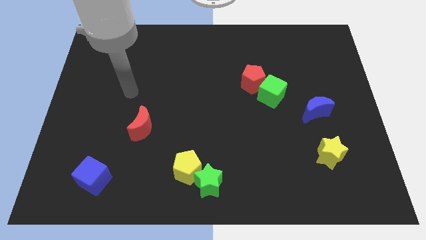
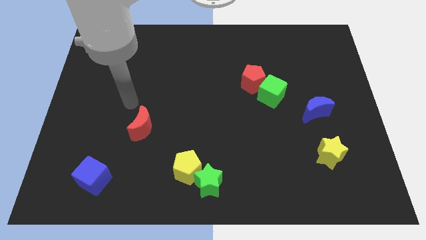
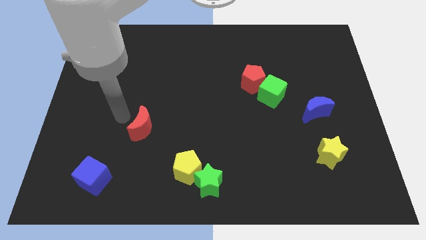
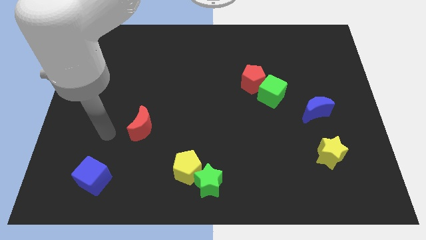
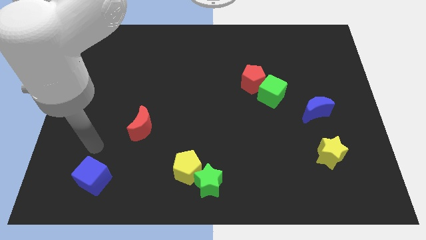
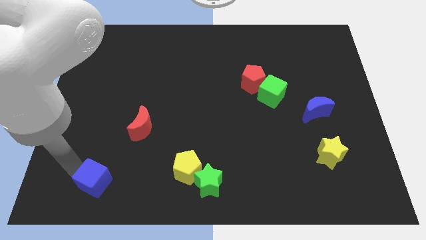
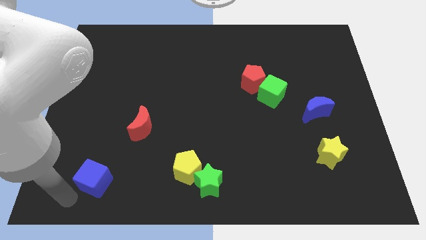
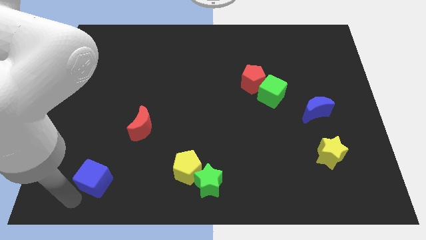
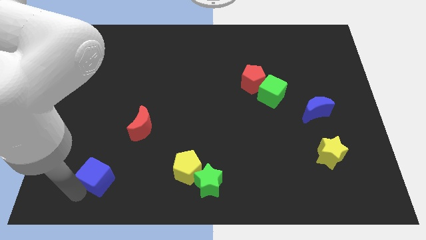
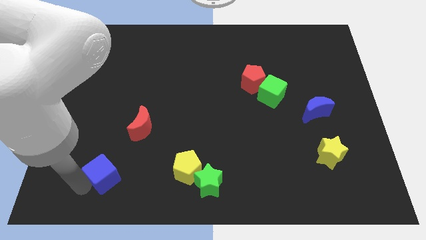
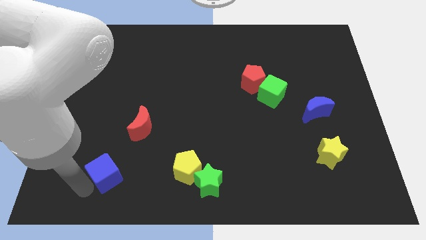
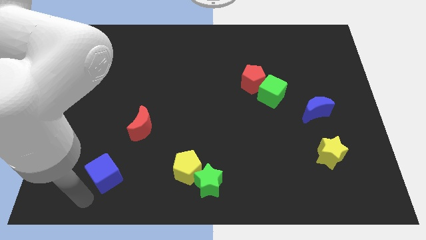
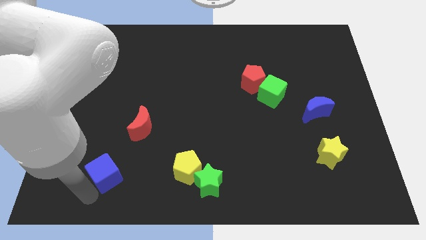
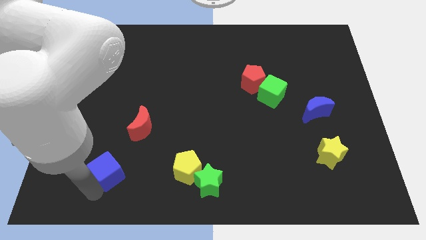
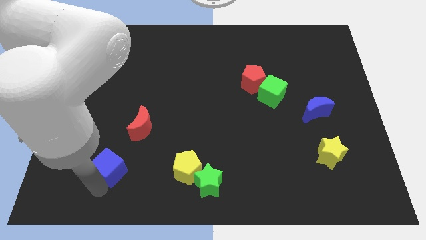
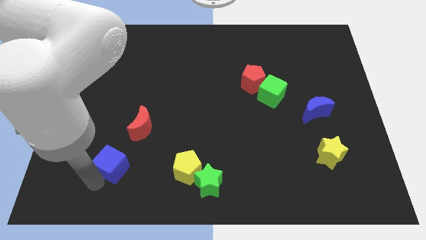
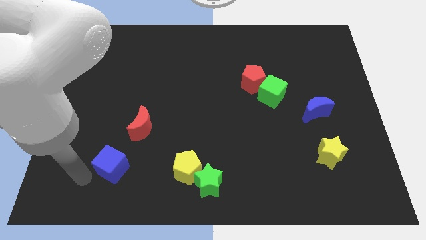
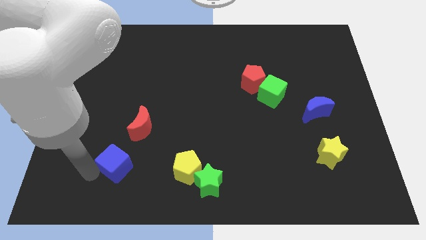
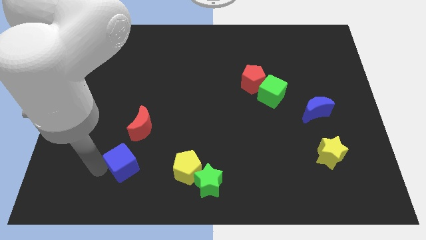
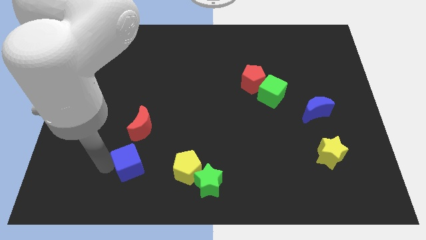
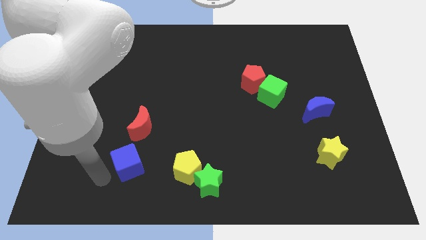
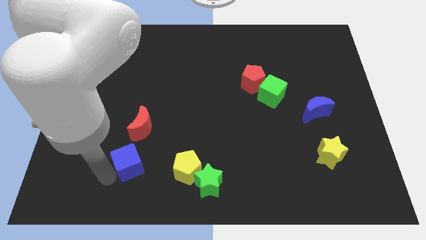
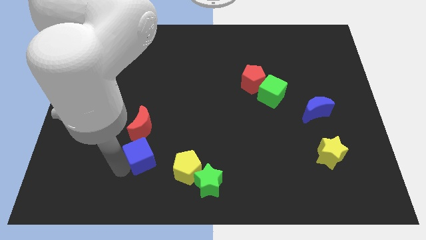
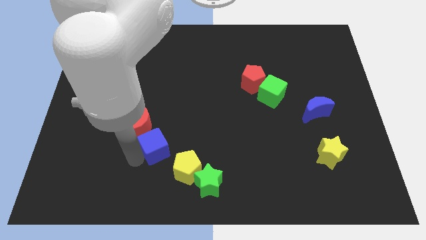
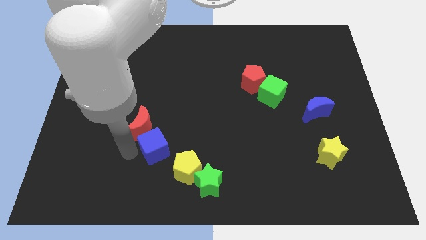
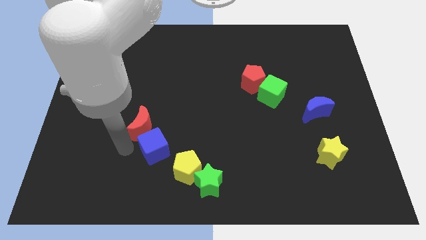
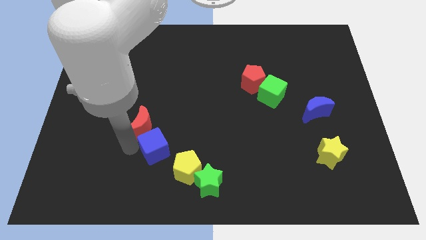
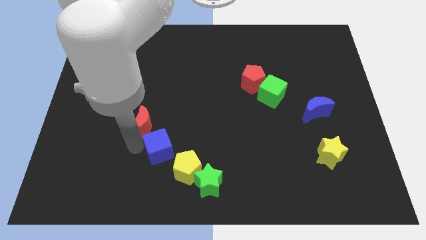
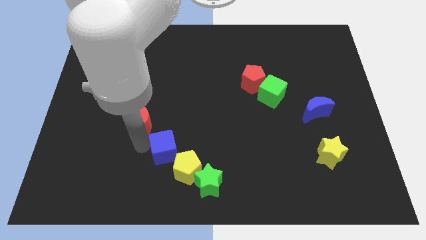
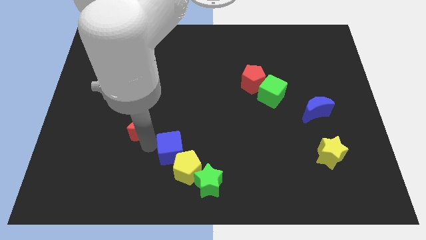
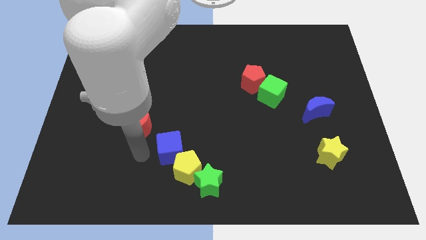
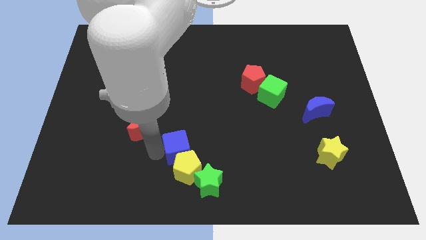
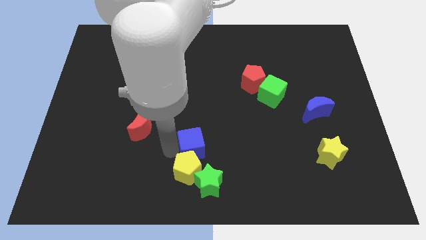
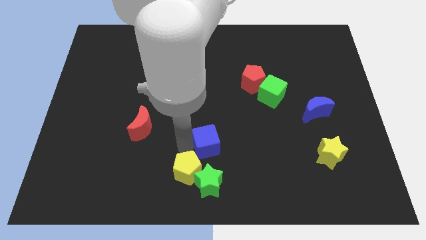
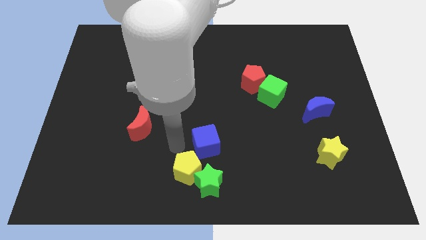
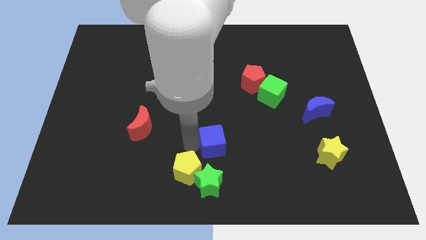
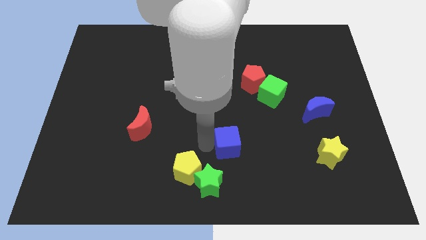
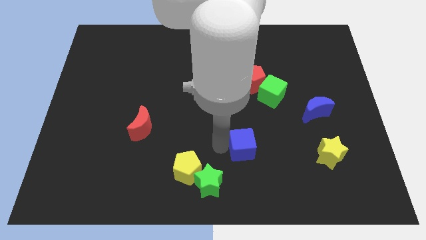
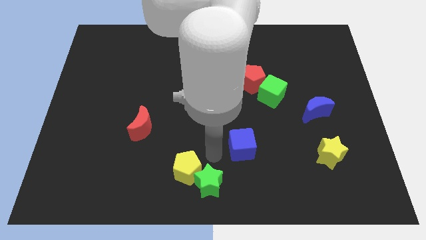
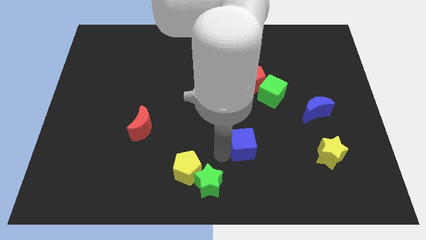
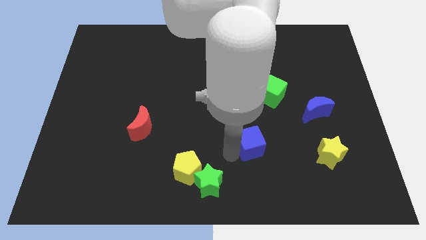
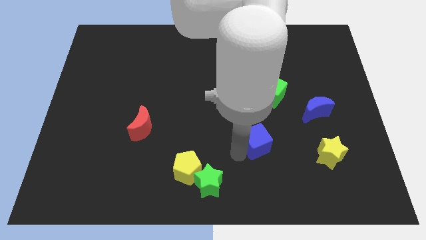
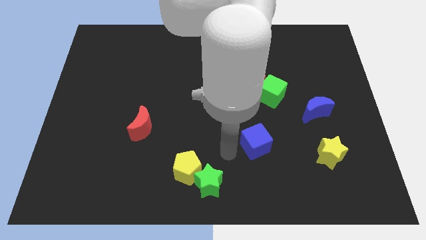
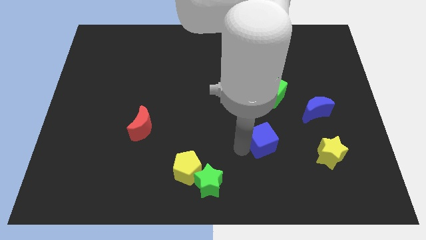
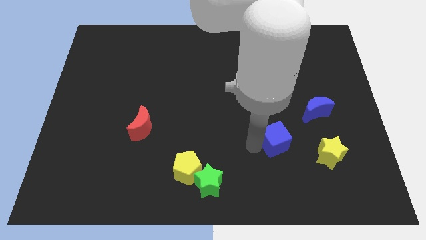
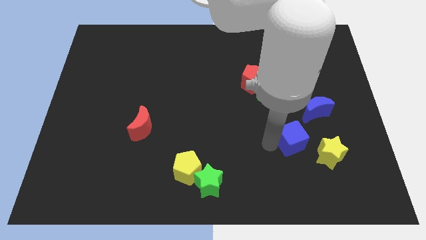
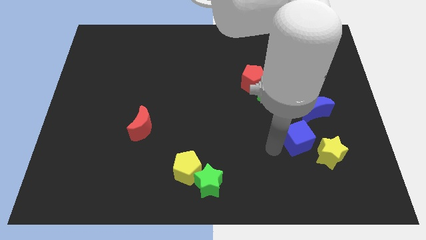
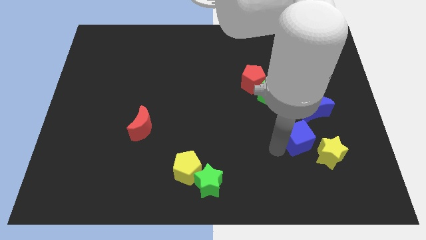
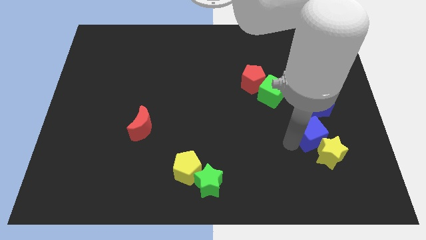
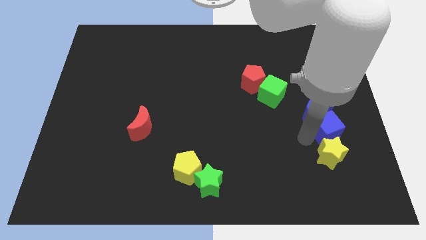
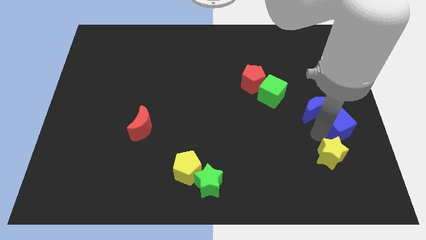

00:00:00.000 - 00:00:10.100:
put the blue cube to the right side of the board

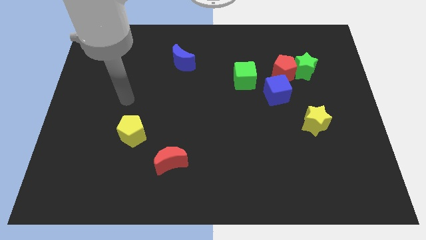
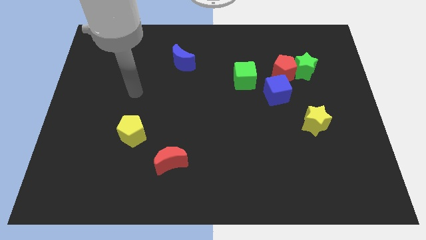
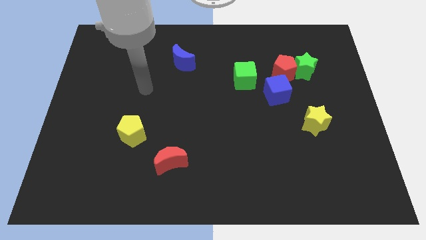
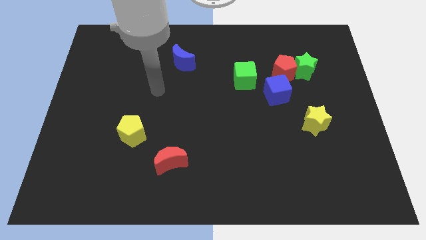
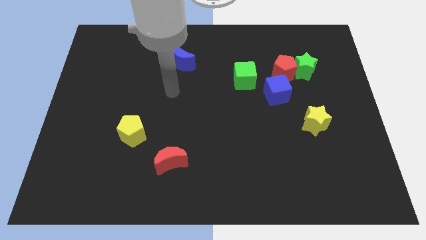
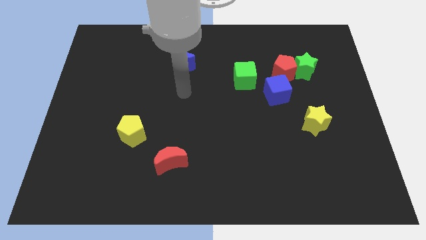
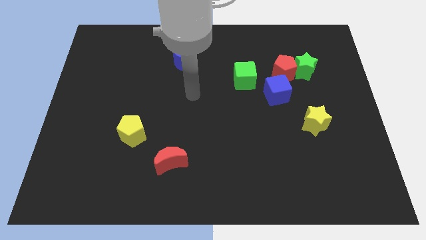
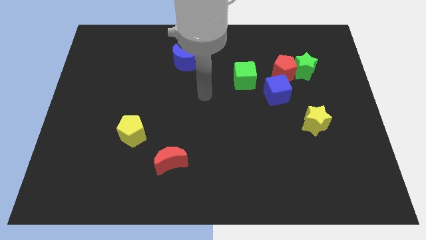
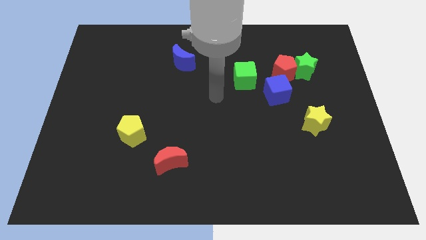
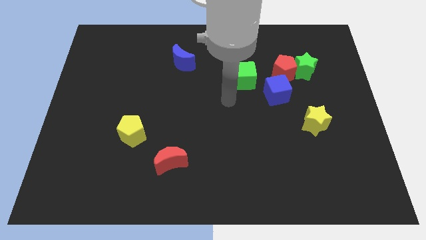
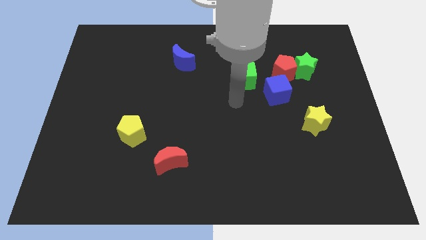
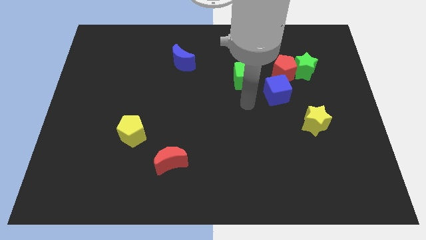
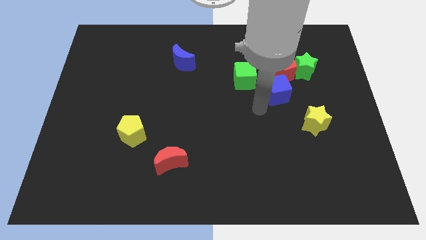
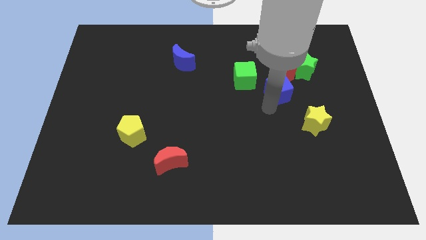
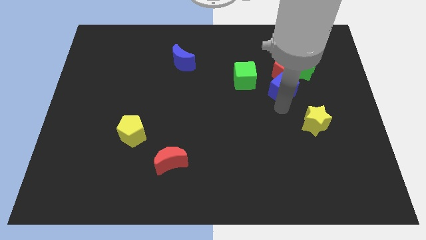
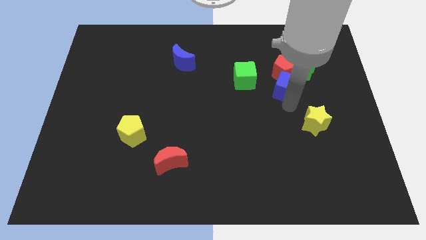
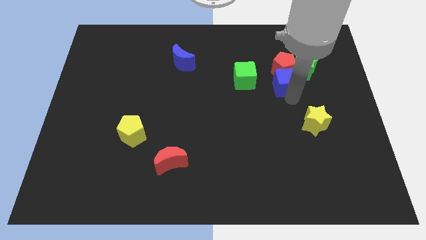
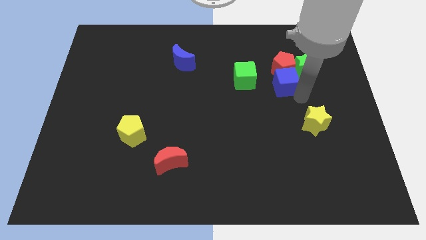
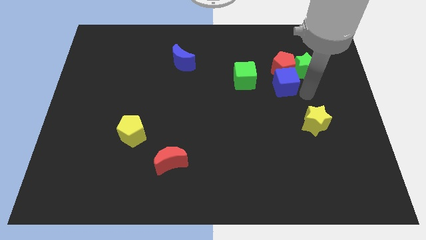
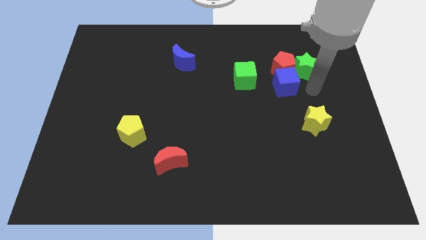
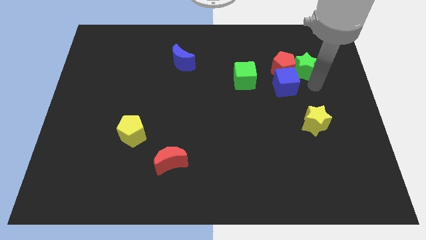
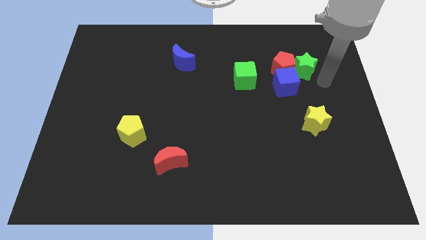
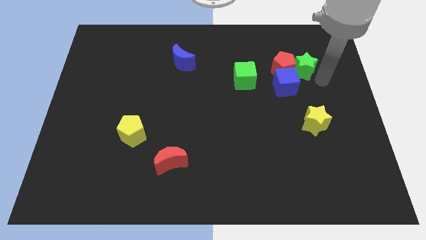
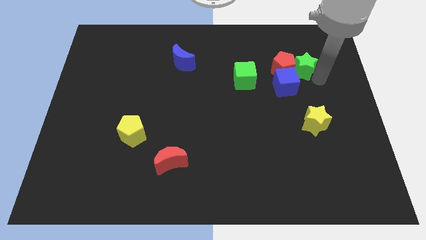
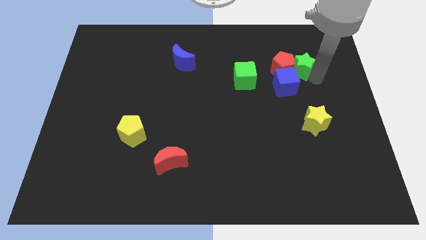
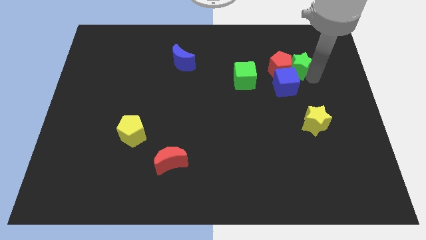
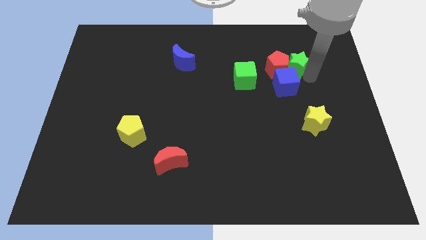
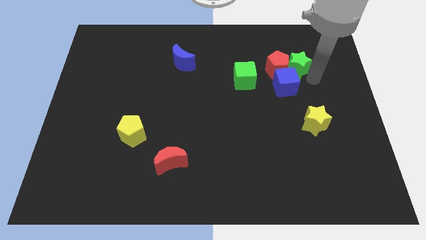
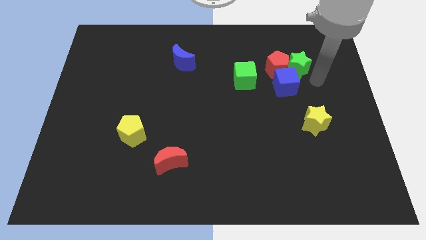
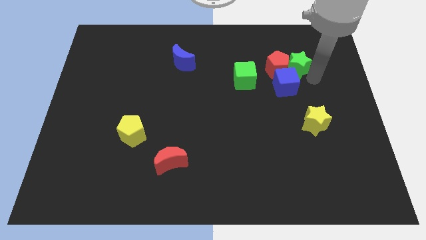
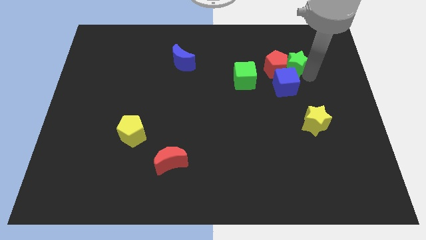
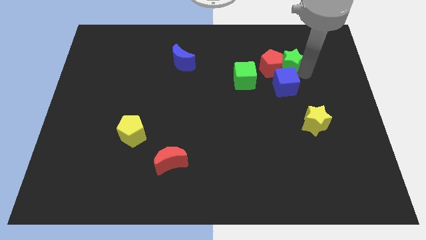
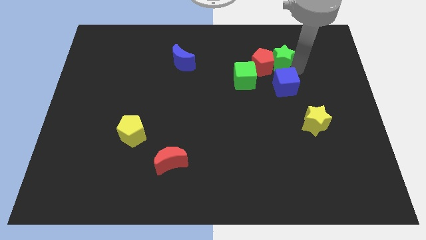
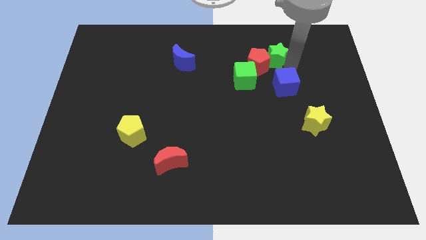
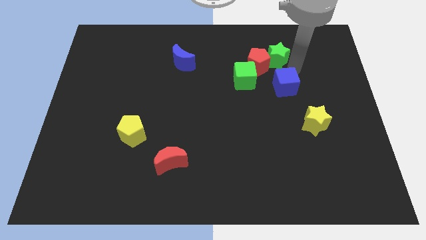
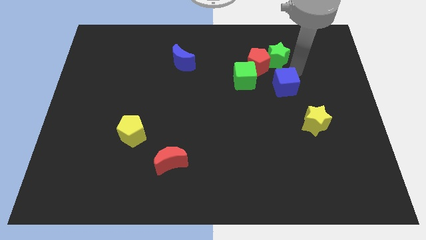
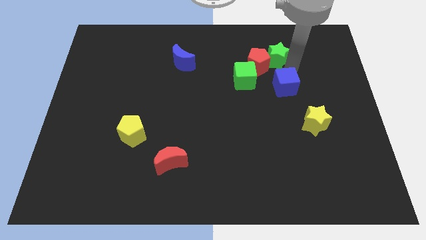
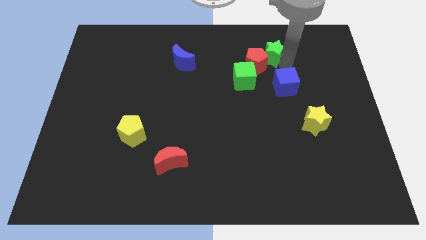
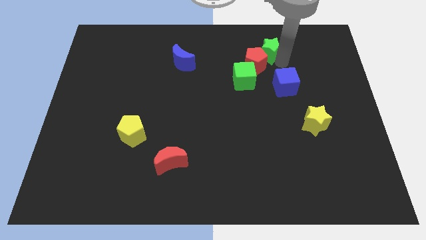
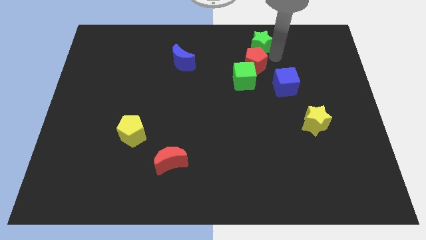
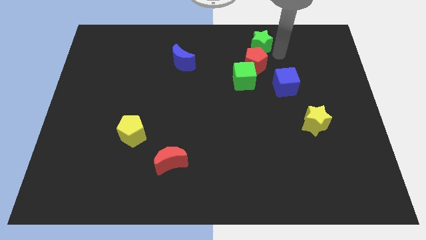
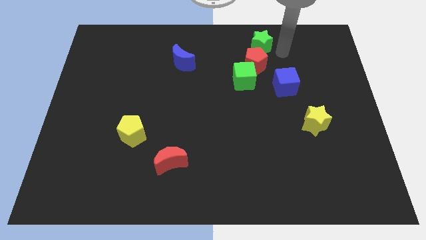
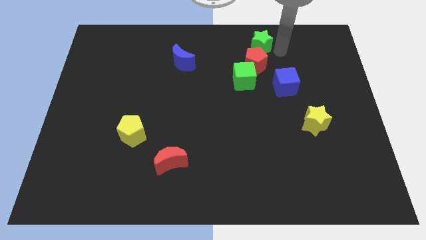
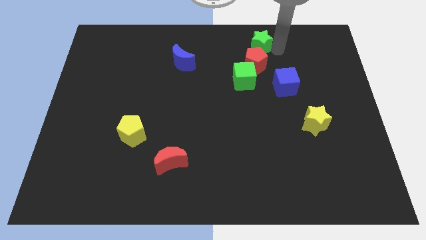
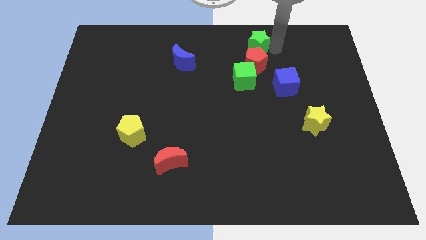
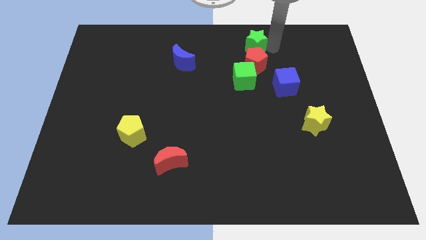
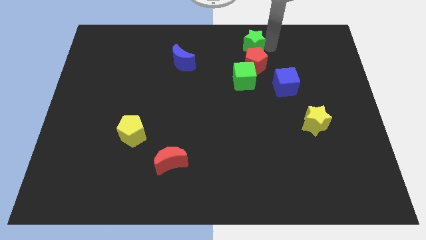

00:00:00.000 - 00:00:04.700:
push the green star to the towards your base
